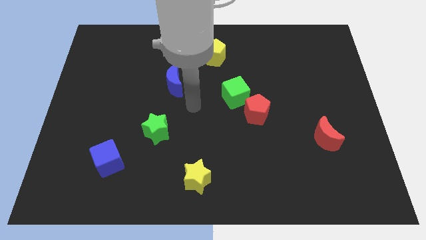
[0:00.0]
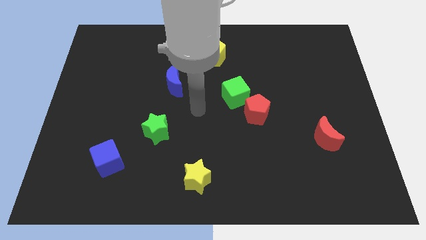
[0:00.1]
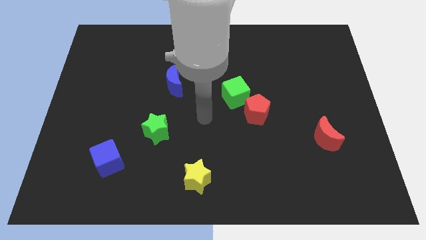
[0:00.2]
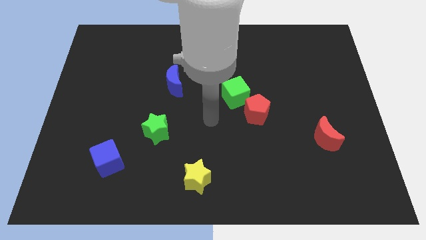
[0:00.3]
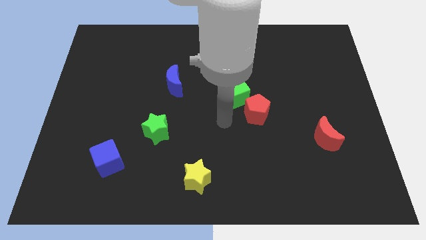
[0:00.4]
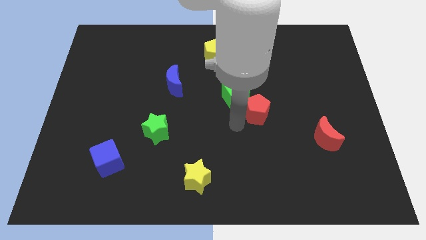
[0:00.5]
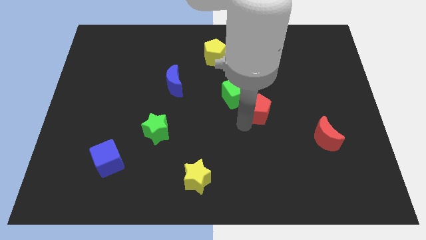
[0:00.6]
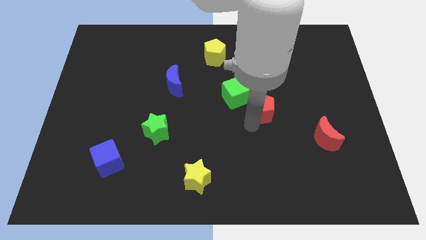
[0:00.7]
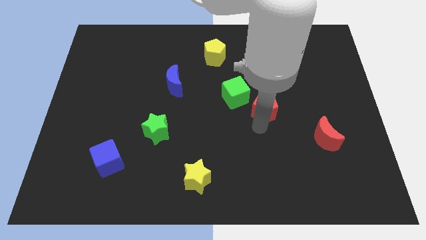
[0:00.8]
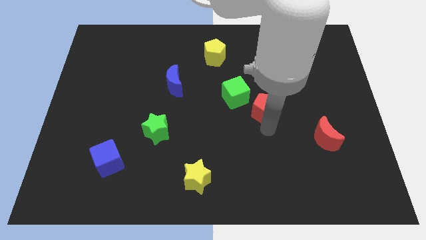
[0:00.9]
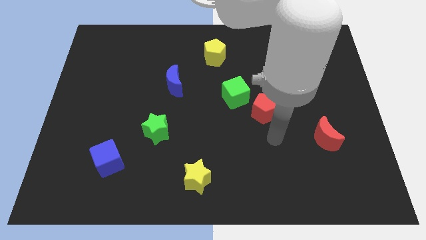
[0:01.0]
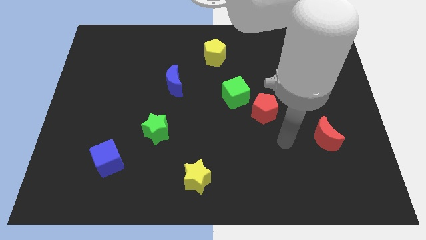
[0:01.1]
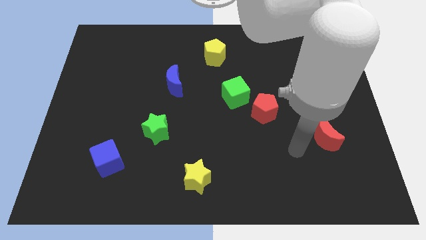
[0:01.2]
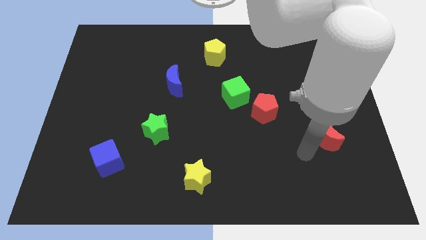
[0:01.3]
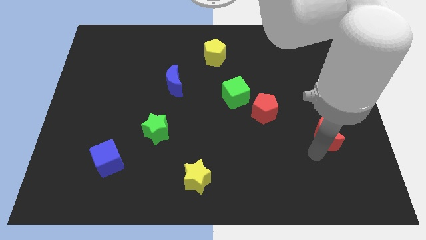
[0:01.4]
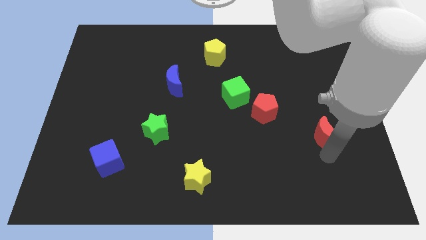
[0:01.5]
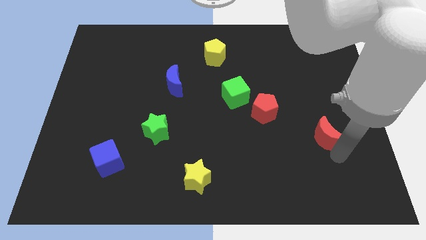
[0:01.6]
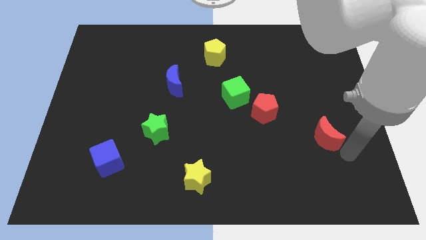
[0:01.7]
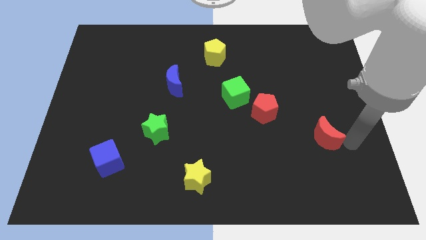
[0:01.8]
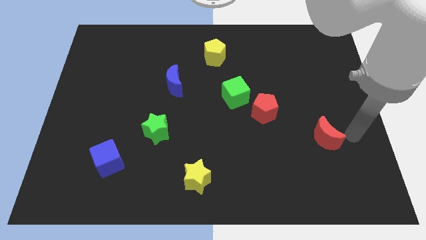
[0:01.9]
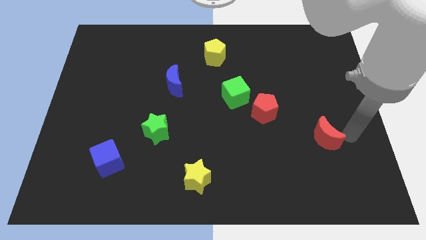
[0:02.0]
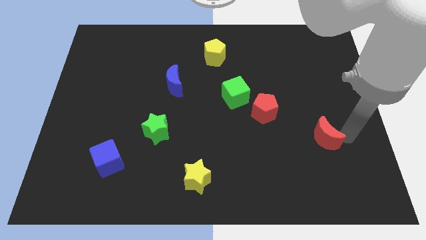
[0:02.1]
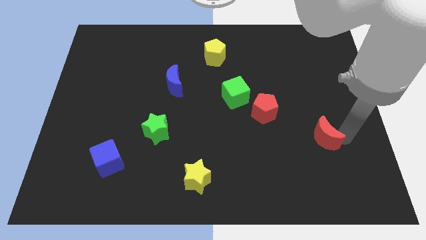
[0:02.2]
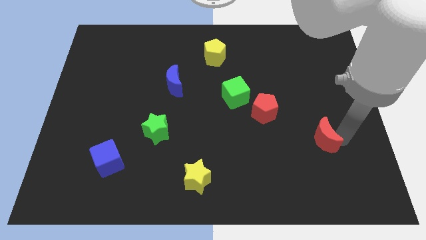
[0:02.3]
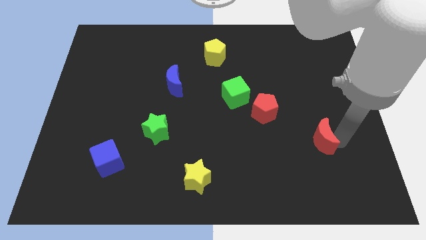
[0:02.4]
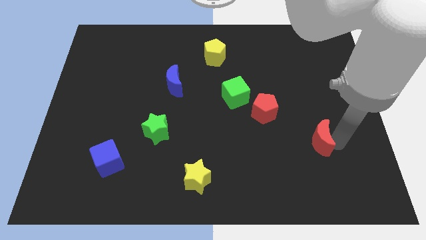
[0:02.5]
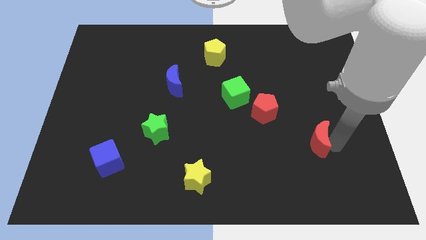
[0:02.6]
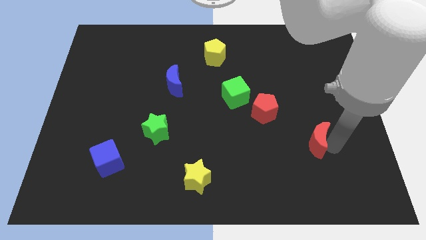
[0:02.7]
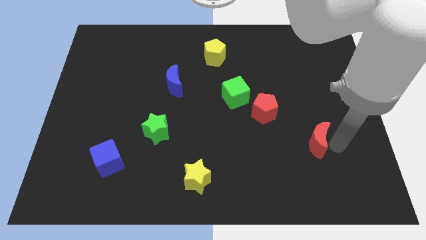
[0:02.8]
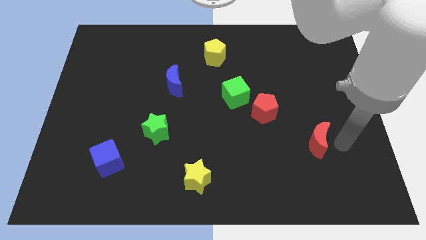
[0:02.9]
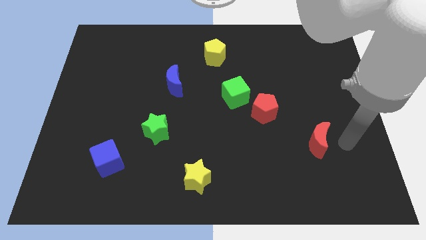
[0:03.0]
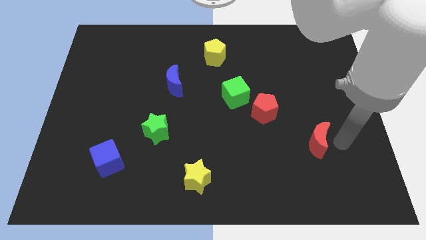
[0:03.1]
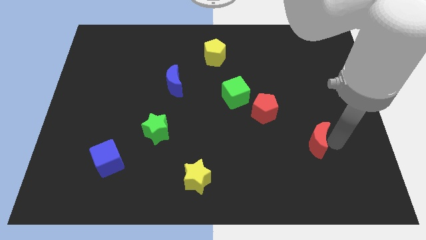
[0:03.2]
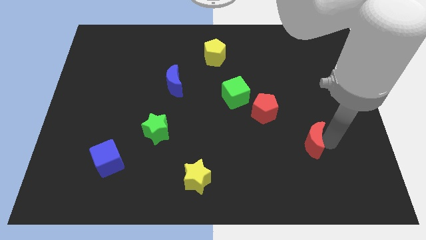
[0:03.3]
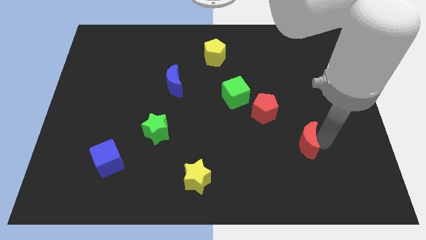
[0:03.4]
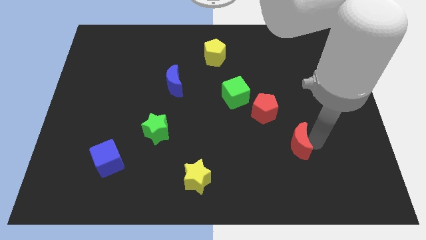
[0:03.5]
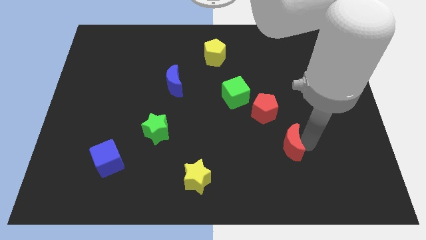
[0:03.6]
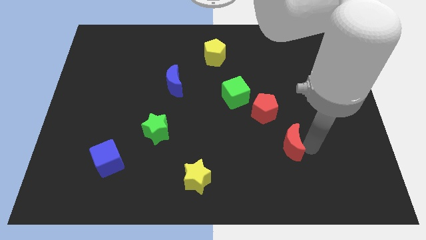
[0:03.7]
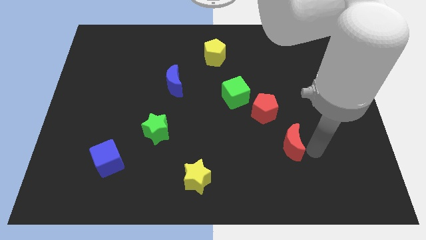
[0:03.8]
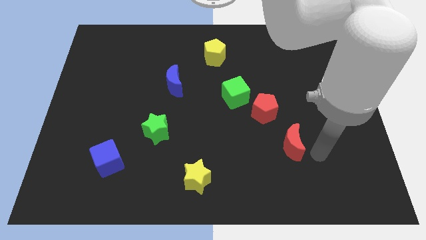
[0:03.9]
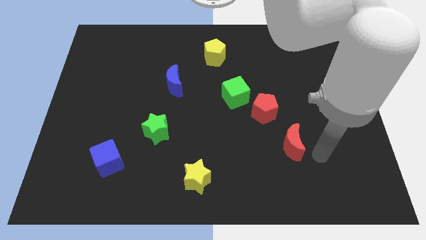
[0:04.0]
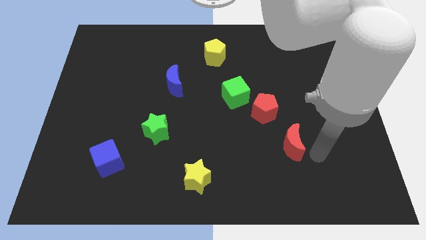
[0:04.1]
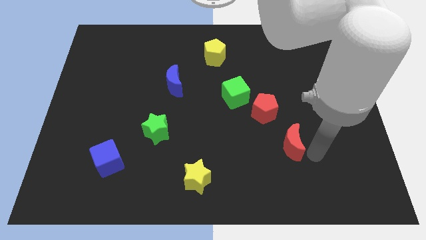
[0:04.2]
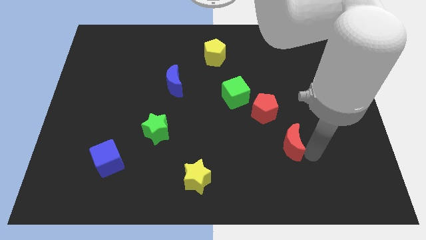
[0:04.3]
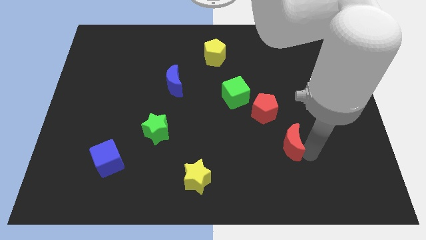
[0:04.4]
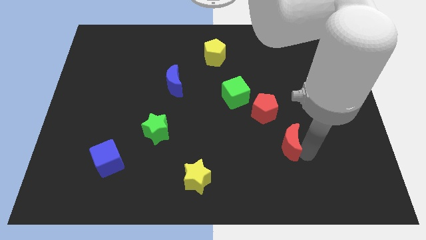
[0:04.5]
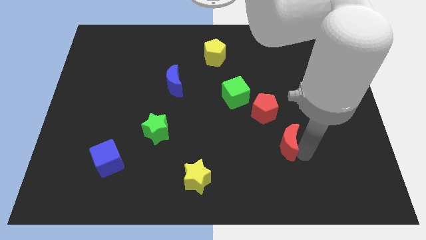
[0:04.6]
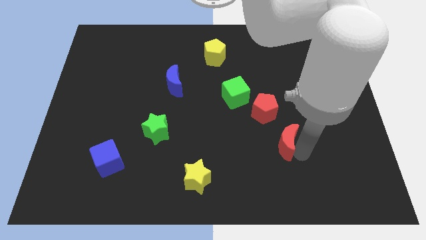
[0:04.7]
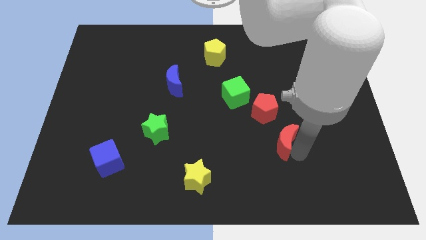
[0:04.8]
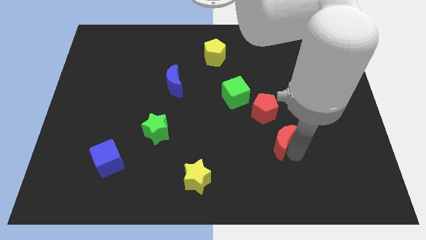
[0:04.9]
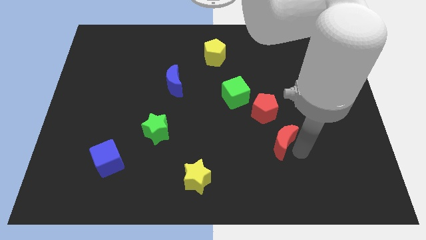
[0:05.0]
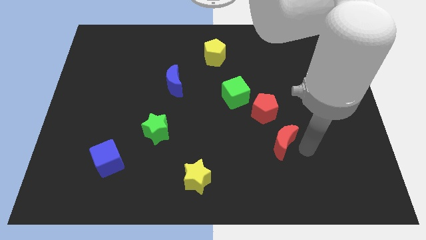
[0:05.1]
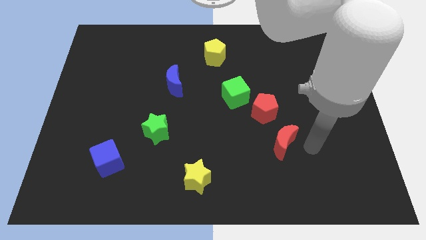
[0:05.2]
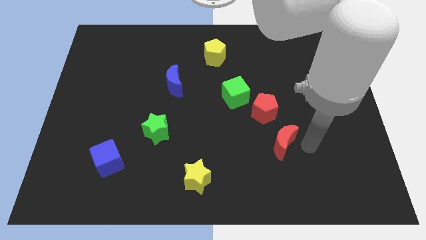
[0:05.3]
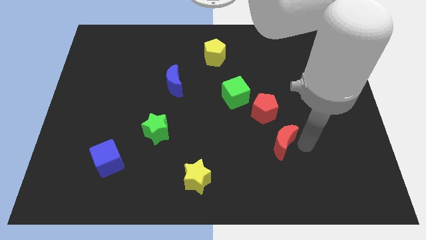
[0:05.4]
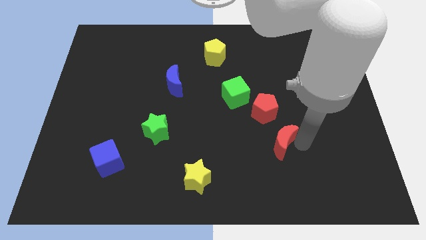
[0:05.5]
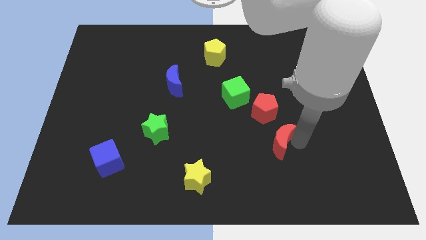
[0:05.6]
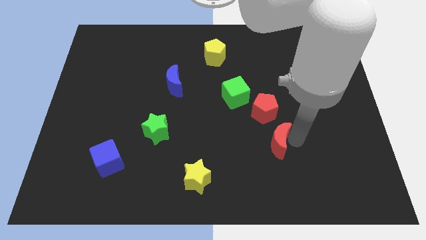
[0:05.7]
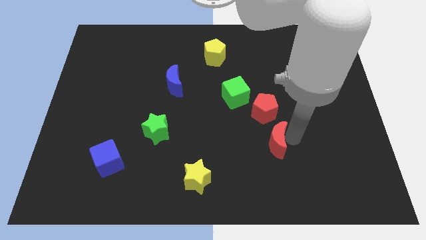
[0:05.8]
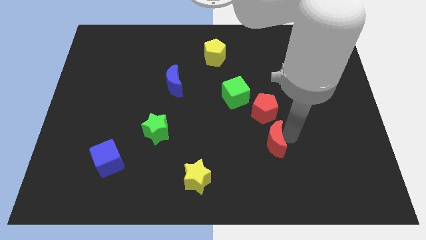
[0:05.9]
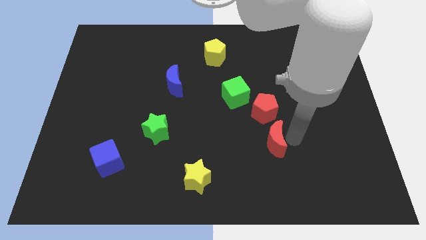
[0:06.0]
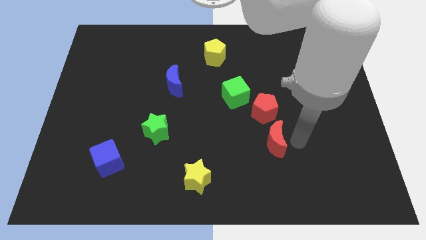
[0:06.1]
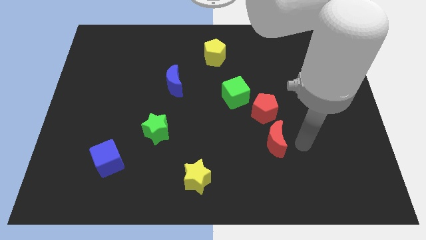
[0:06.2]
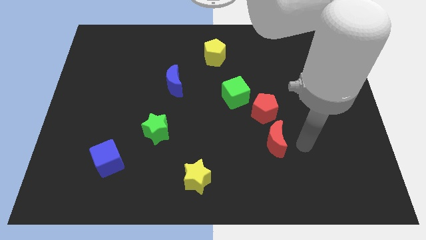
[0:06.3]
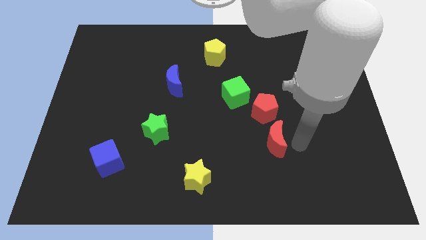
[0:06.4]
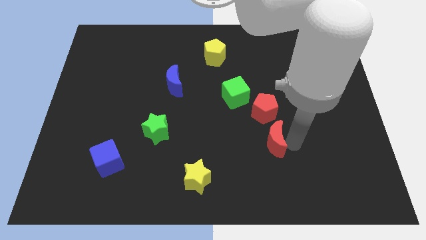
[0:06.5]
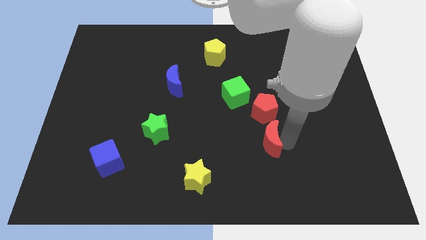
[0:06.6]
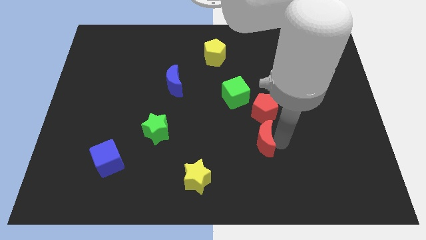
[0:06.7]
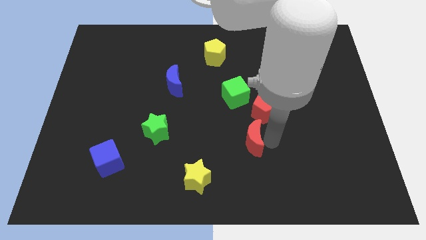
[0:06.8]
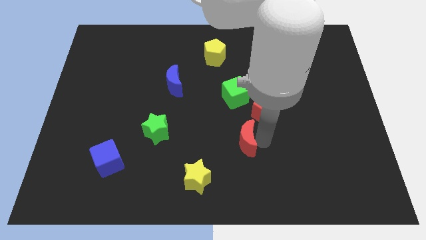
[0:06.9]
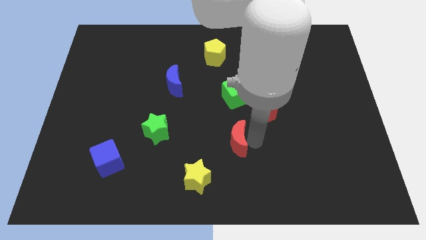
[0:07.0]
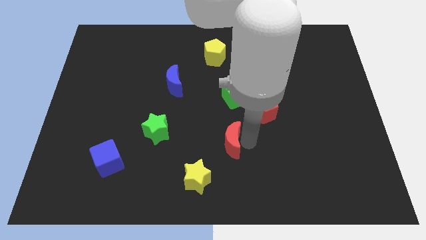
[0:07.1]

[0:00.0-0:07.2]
push the red moon to the left

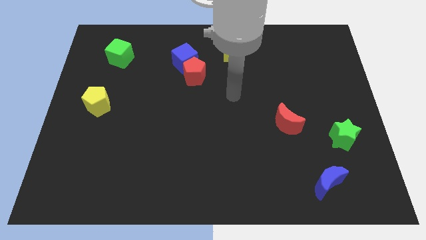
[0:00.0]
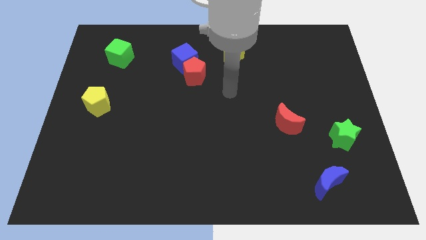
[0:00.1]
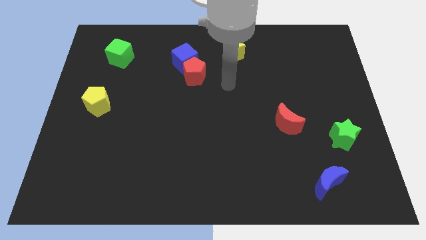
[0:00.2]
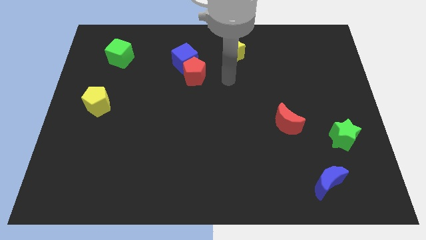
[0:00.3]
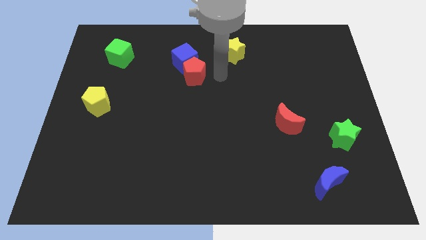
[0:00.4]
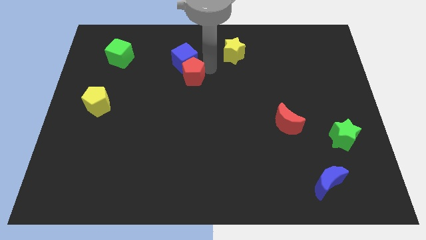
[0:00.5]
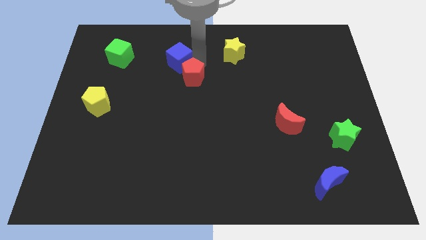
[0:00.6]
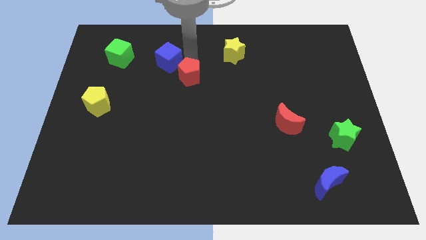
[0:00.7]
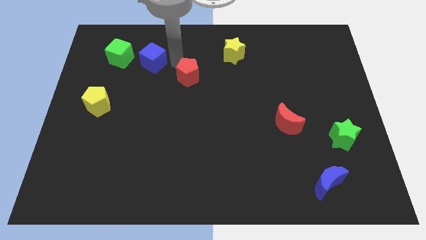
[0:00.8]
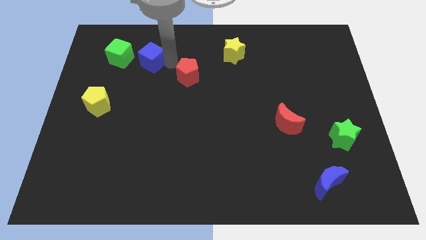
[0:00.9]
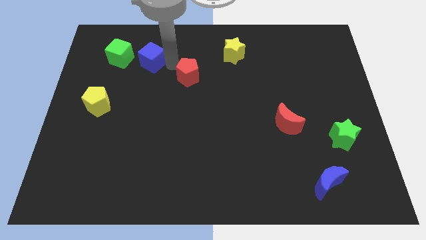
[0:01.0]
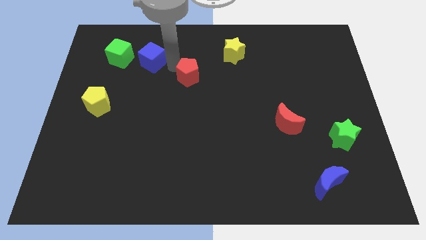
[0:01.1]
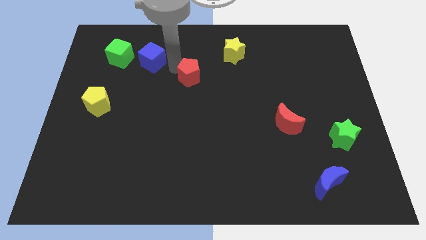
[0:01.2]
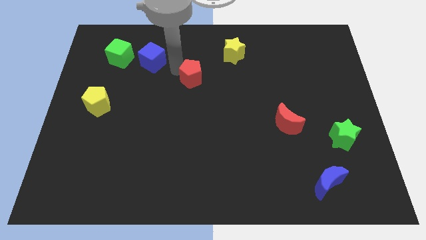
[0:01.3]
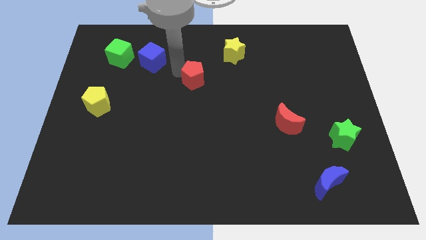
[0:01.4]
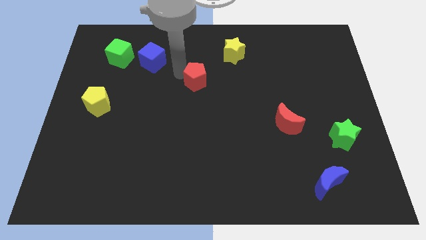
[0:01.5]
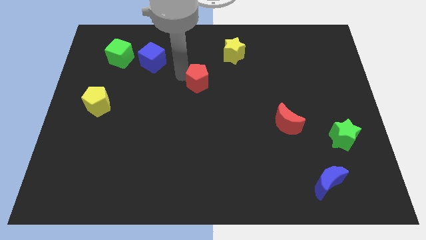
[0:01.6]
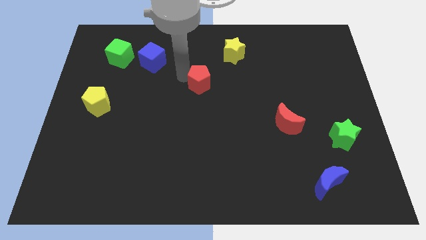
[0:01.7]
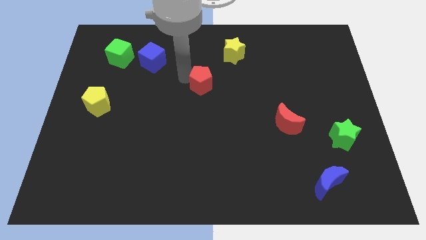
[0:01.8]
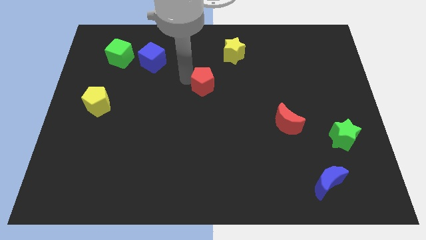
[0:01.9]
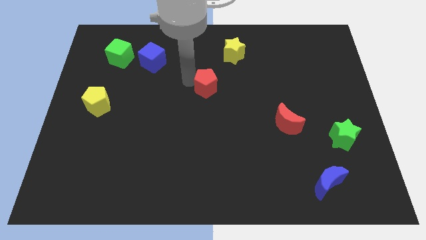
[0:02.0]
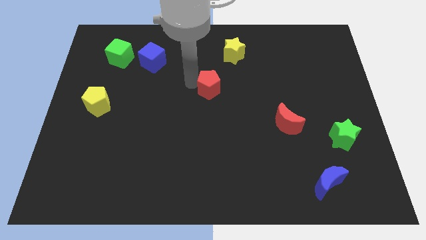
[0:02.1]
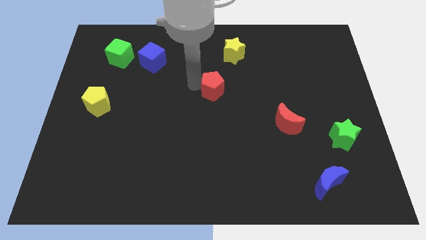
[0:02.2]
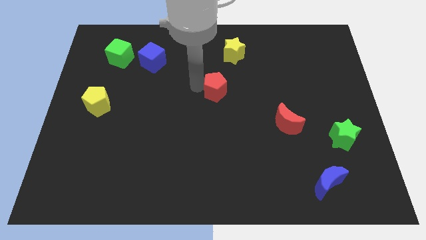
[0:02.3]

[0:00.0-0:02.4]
push the red pentagon a little bit down and to the right diagonally
